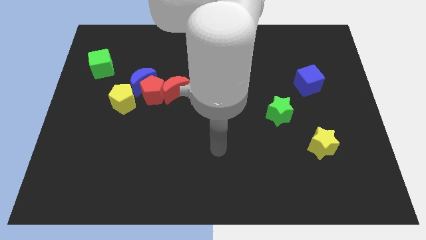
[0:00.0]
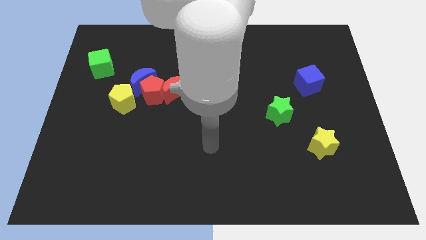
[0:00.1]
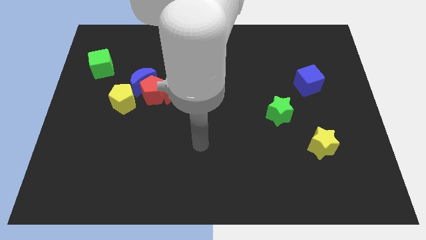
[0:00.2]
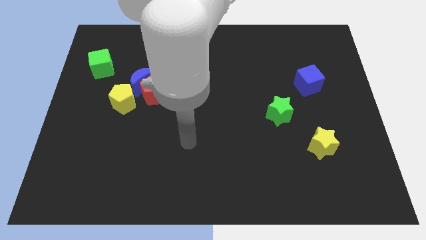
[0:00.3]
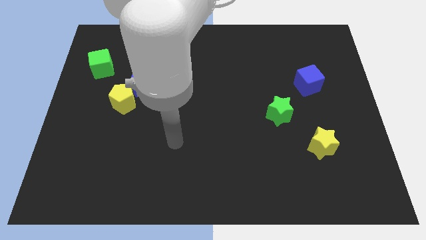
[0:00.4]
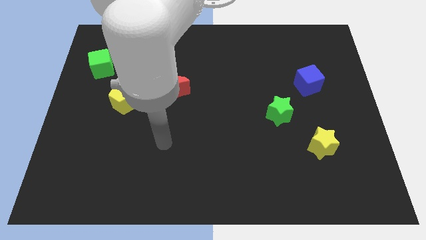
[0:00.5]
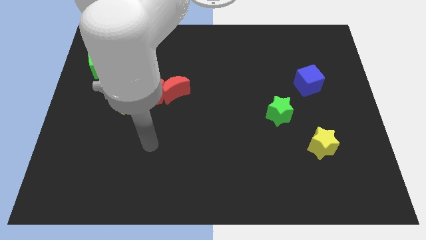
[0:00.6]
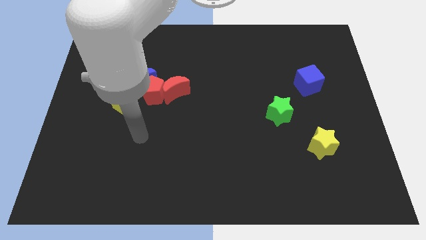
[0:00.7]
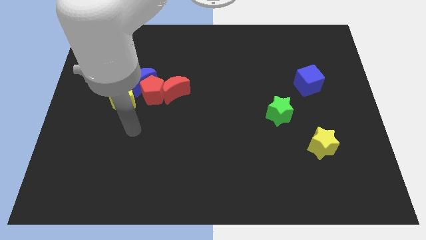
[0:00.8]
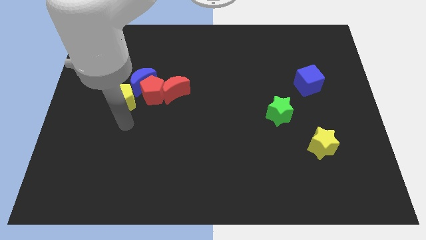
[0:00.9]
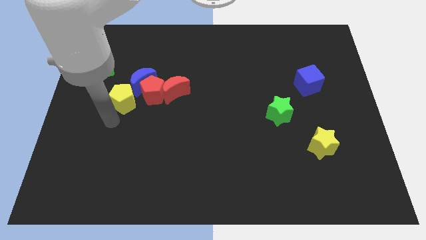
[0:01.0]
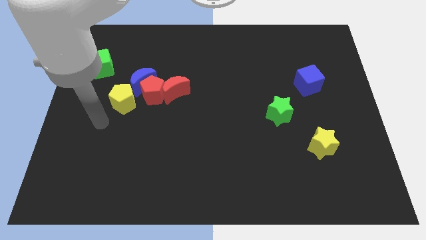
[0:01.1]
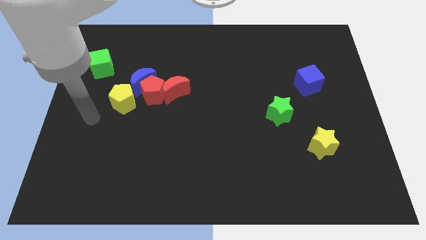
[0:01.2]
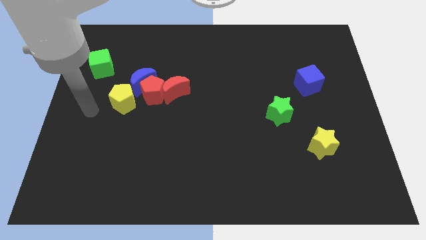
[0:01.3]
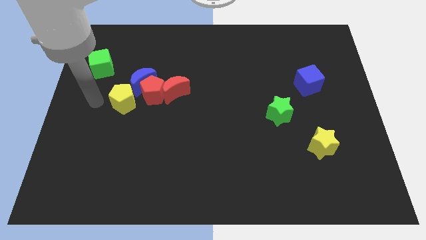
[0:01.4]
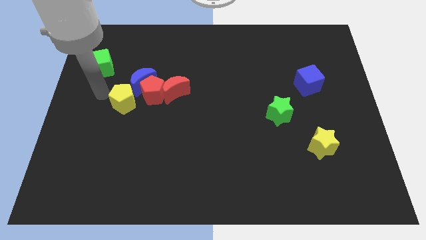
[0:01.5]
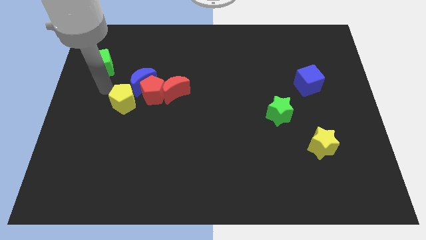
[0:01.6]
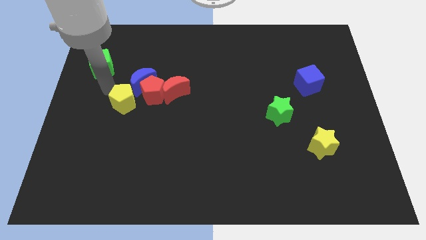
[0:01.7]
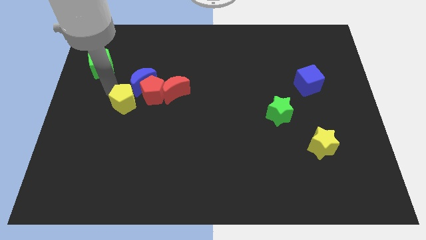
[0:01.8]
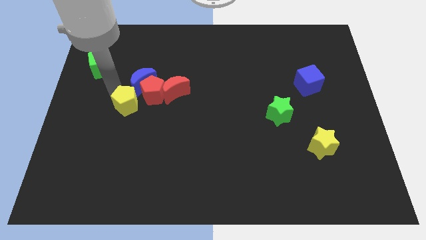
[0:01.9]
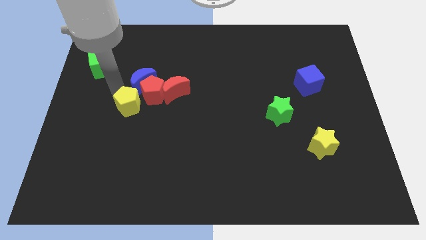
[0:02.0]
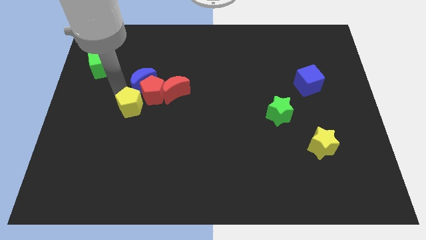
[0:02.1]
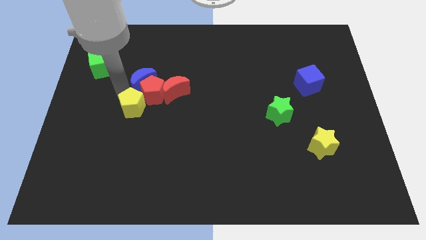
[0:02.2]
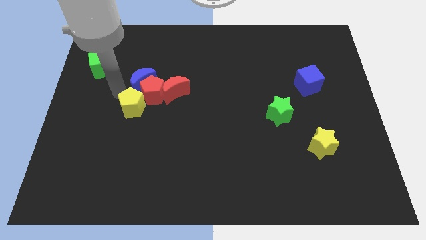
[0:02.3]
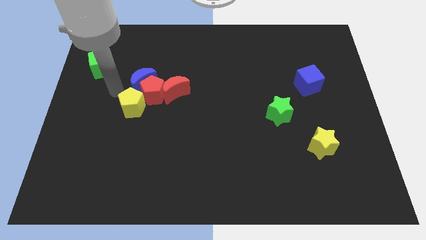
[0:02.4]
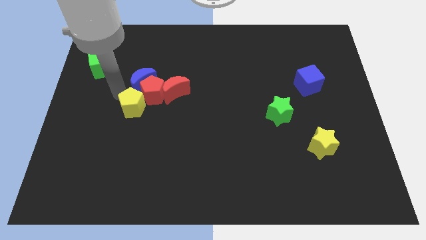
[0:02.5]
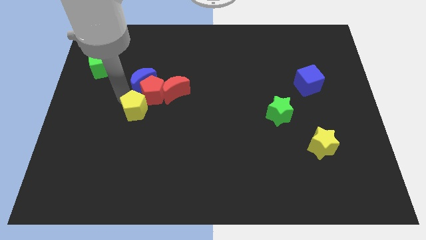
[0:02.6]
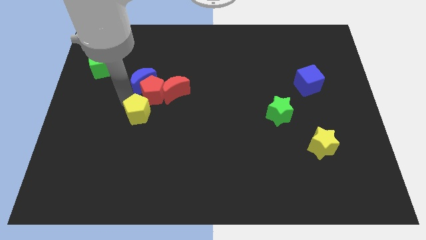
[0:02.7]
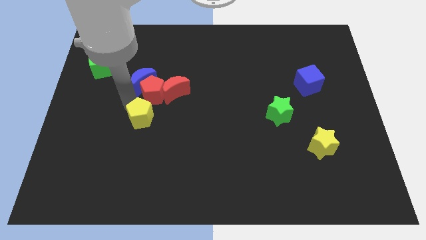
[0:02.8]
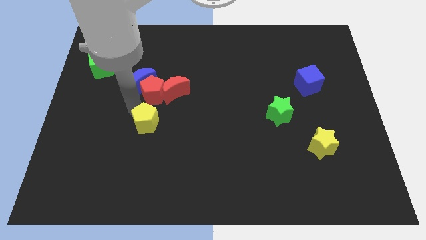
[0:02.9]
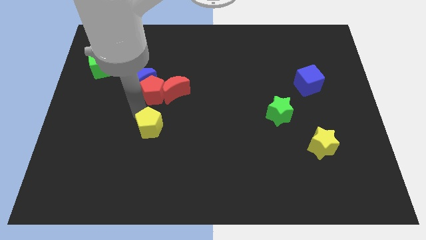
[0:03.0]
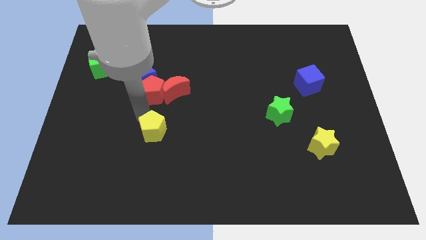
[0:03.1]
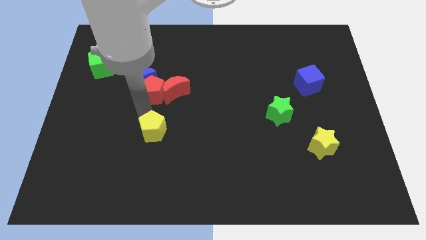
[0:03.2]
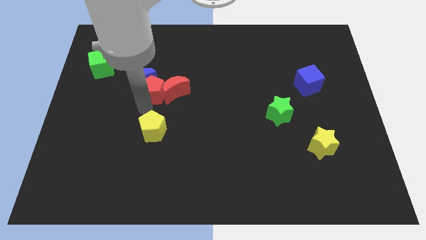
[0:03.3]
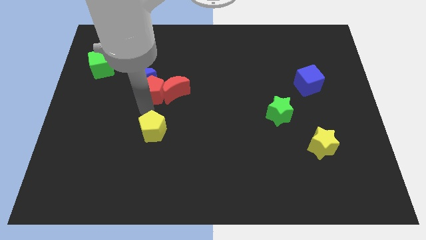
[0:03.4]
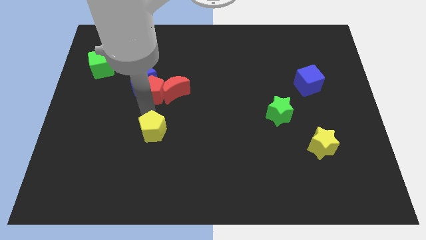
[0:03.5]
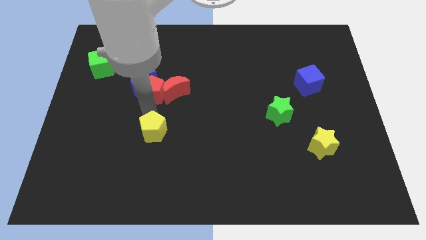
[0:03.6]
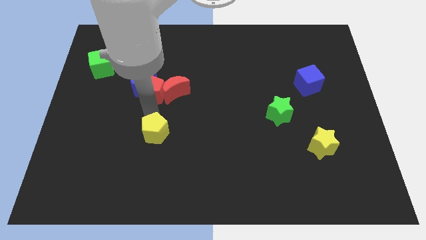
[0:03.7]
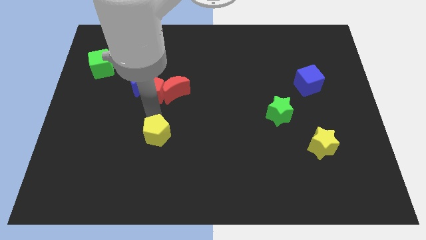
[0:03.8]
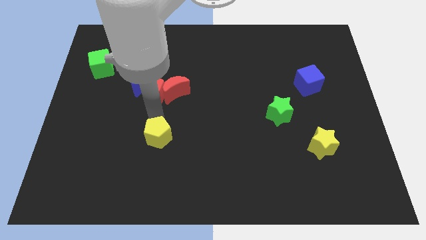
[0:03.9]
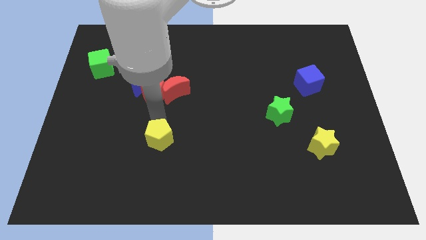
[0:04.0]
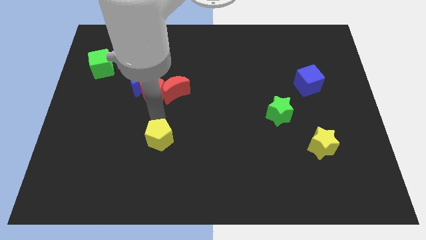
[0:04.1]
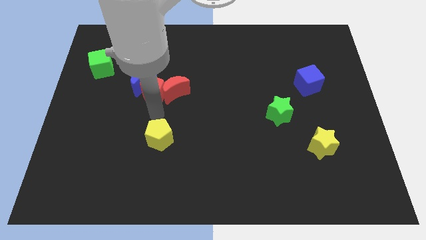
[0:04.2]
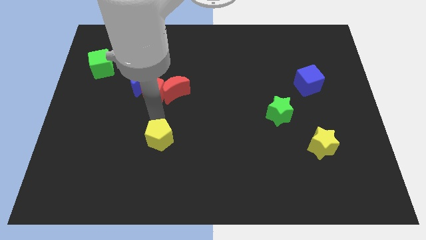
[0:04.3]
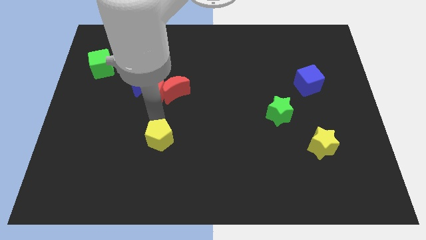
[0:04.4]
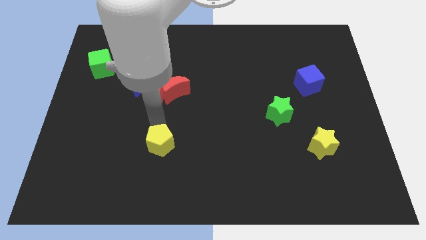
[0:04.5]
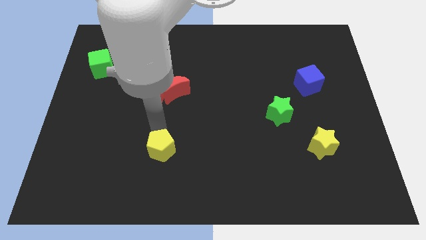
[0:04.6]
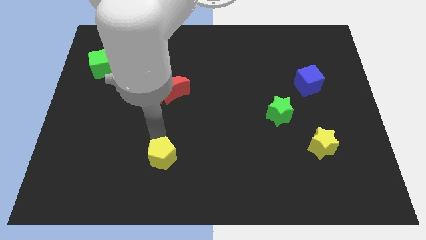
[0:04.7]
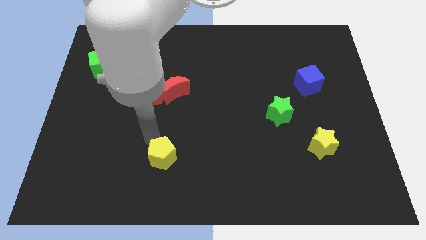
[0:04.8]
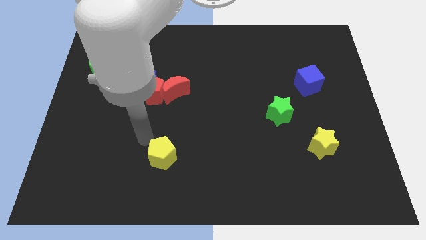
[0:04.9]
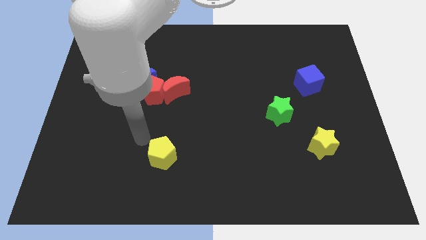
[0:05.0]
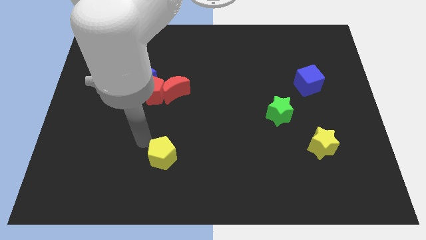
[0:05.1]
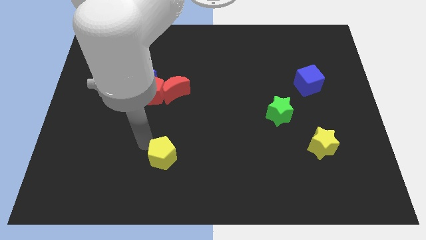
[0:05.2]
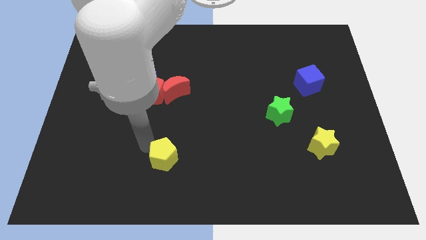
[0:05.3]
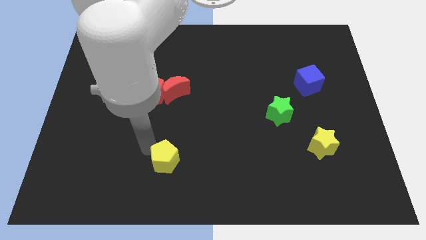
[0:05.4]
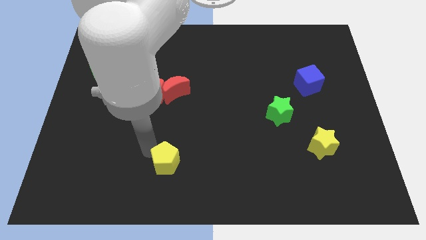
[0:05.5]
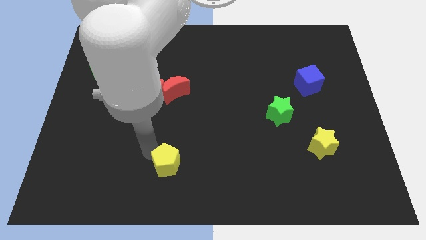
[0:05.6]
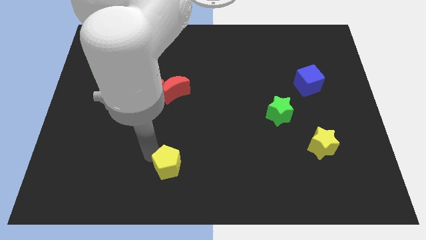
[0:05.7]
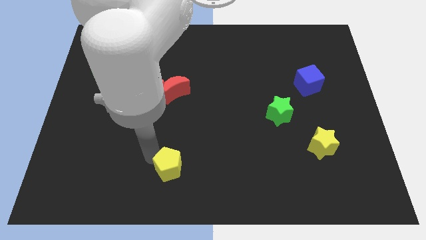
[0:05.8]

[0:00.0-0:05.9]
slide the yellow pentagon to the bottom
